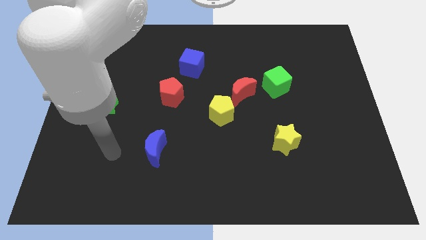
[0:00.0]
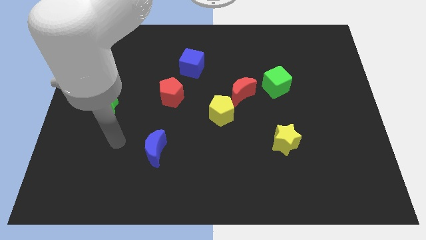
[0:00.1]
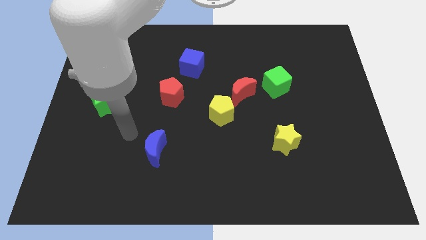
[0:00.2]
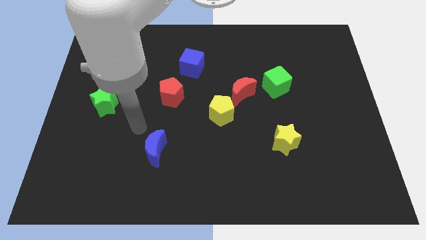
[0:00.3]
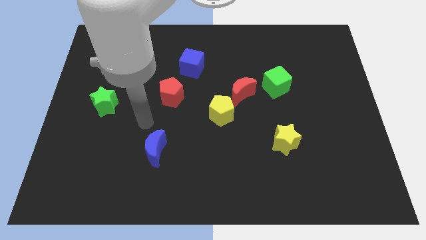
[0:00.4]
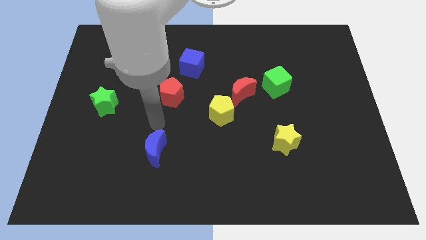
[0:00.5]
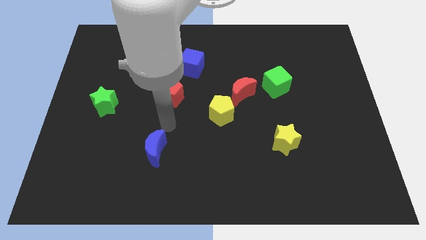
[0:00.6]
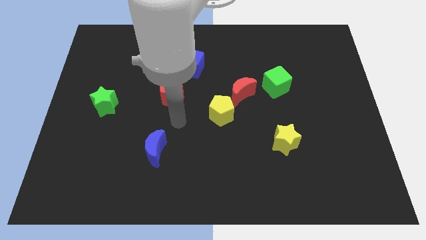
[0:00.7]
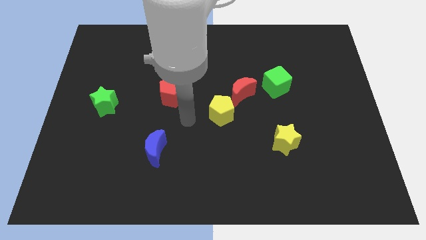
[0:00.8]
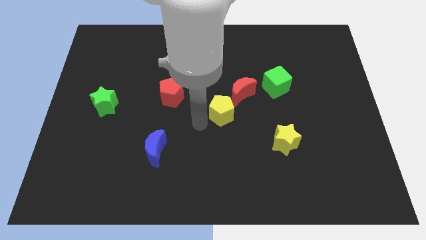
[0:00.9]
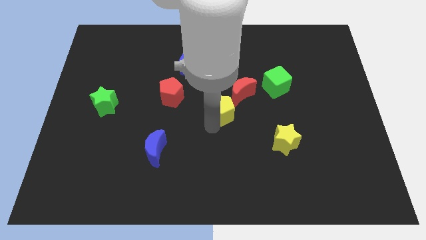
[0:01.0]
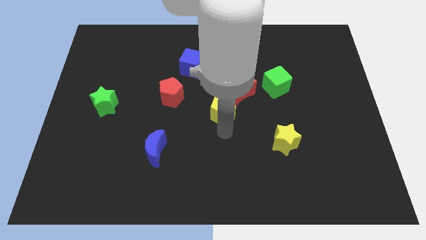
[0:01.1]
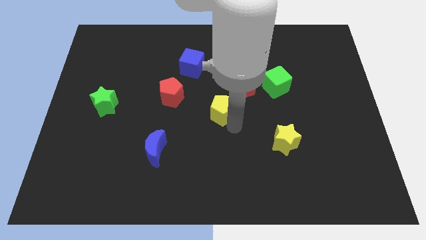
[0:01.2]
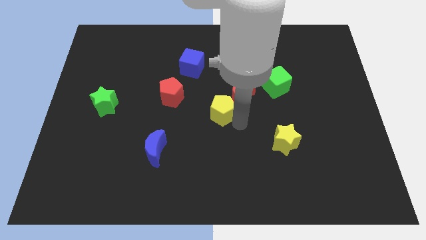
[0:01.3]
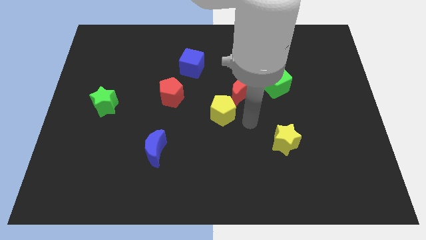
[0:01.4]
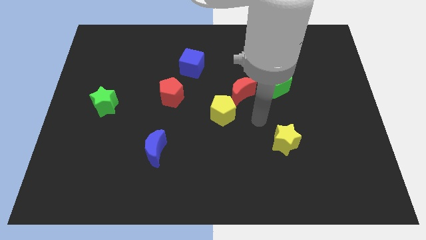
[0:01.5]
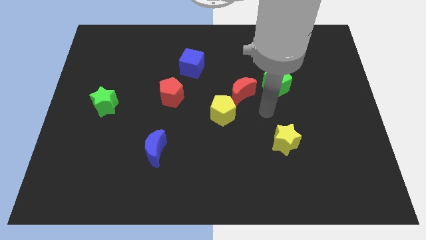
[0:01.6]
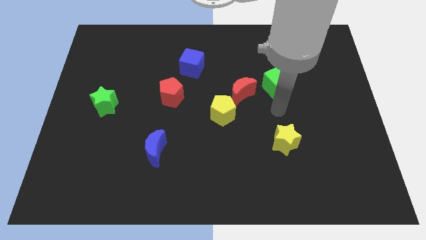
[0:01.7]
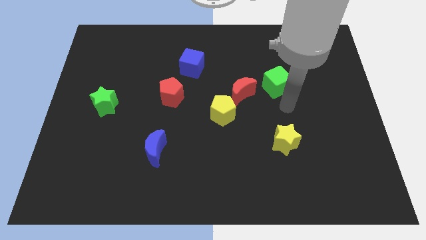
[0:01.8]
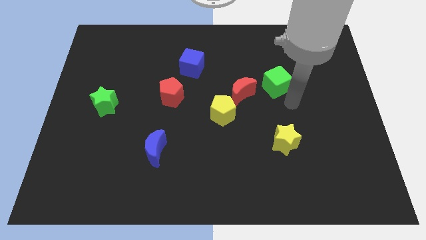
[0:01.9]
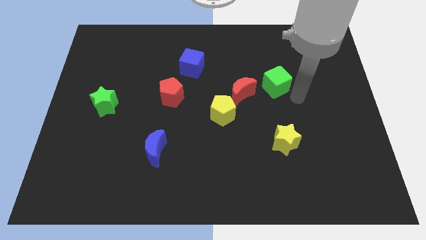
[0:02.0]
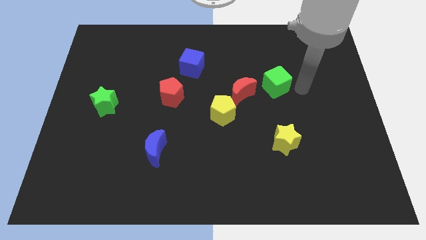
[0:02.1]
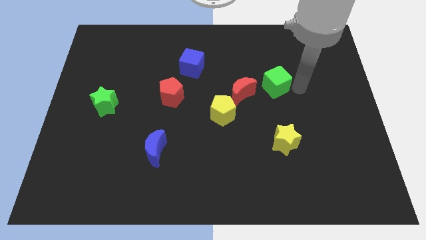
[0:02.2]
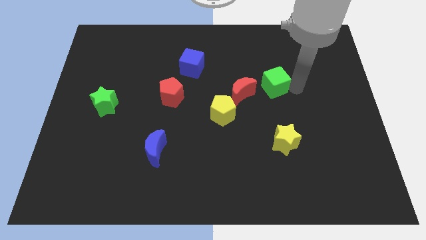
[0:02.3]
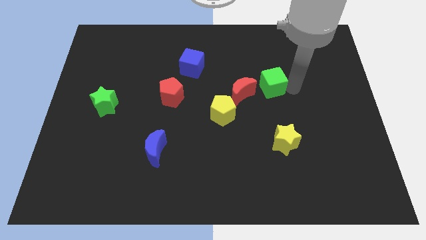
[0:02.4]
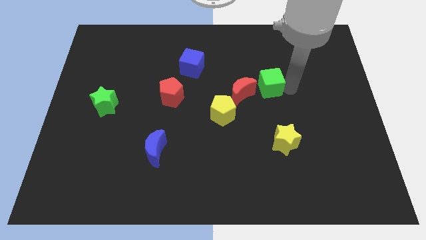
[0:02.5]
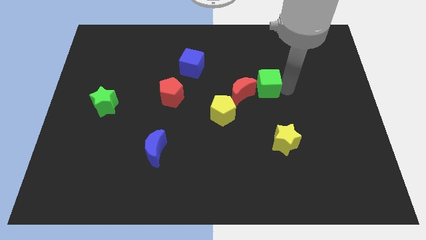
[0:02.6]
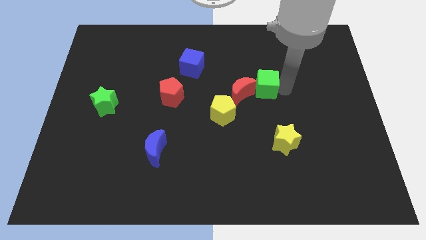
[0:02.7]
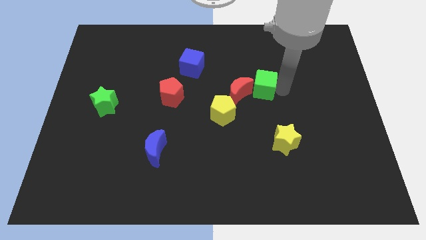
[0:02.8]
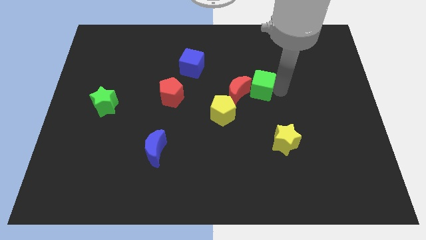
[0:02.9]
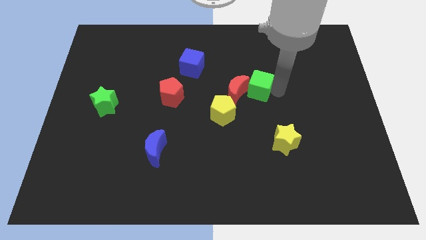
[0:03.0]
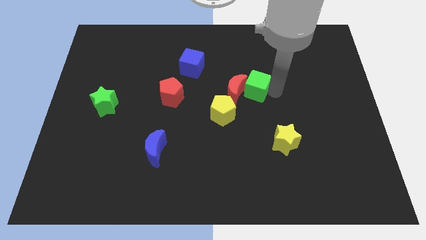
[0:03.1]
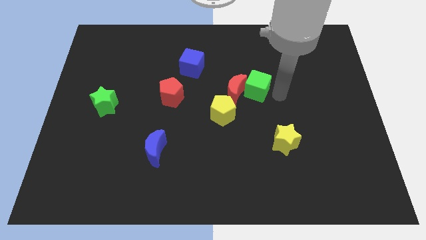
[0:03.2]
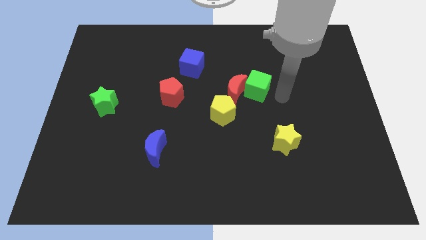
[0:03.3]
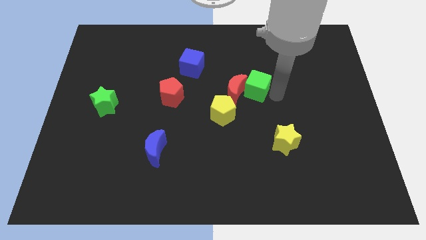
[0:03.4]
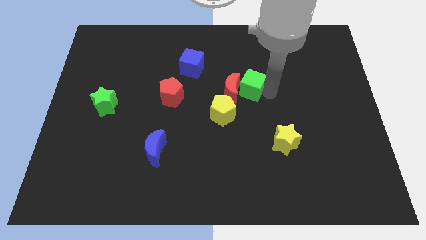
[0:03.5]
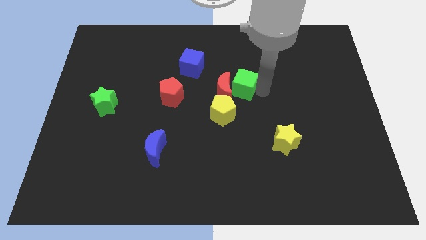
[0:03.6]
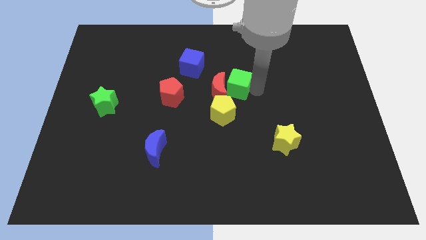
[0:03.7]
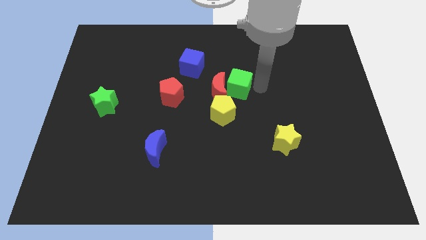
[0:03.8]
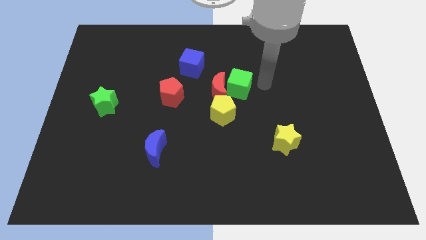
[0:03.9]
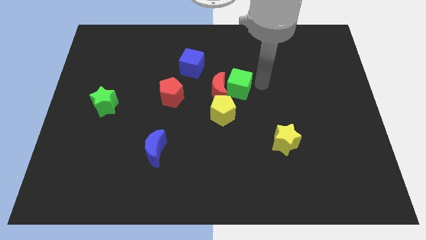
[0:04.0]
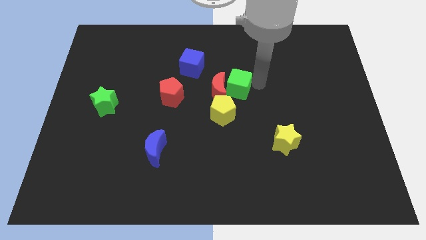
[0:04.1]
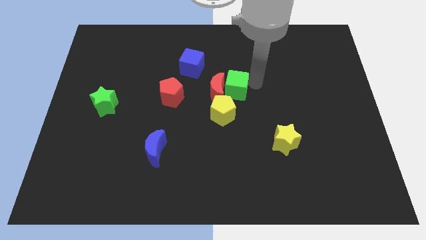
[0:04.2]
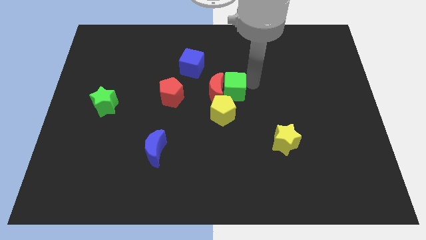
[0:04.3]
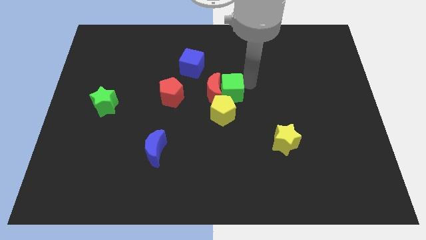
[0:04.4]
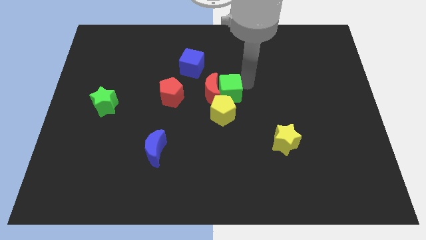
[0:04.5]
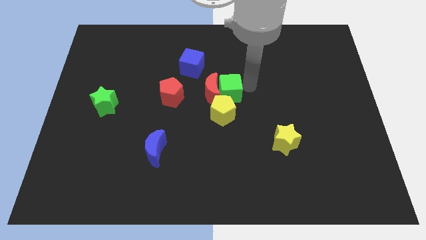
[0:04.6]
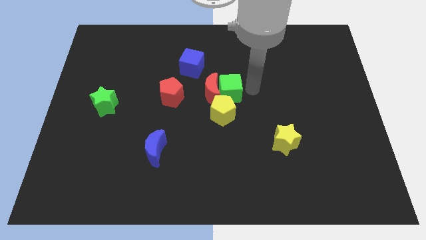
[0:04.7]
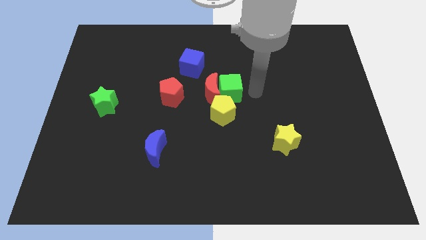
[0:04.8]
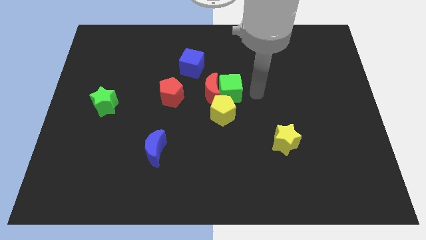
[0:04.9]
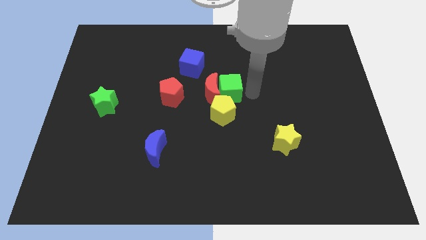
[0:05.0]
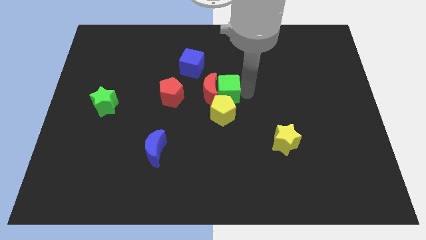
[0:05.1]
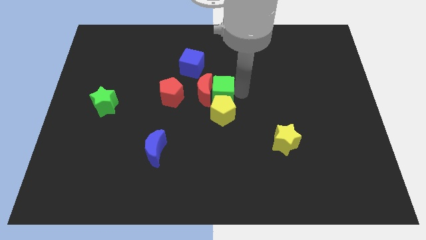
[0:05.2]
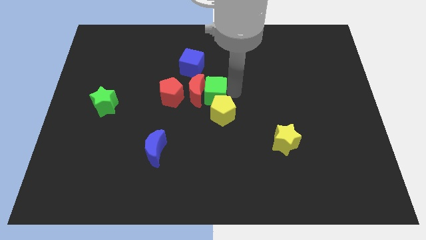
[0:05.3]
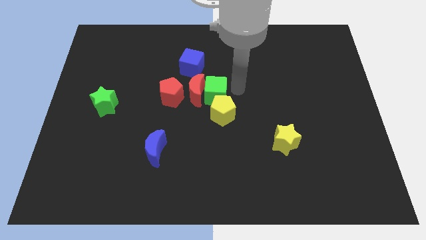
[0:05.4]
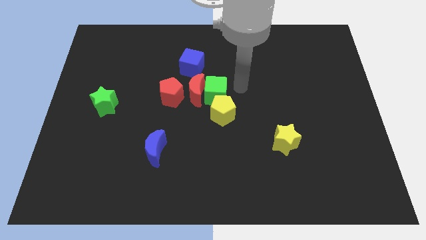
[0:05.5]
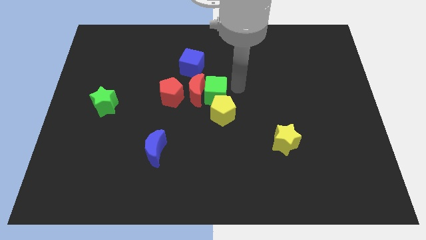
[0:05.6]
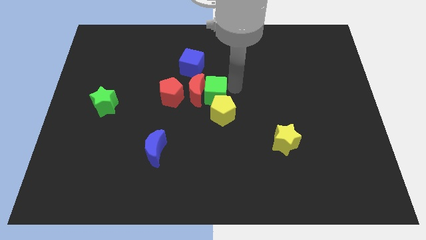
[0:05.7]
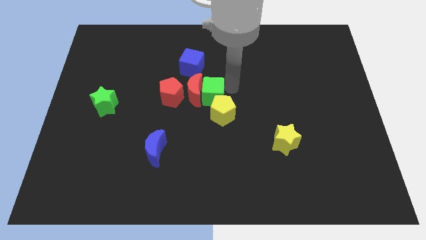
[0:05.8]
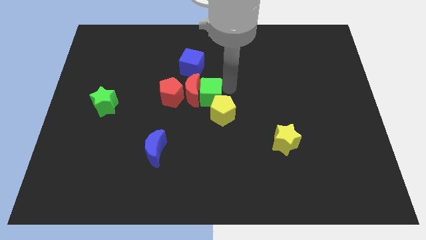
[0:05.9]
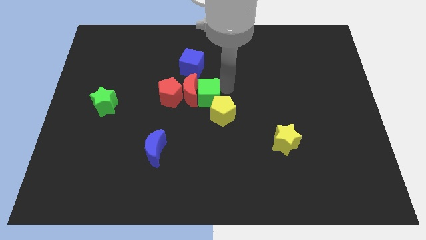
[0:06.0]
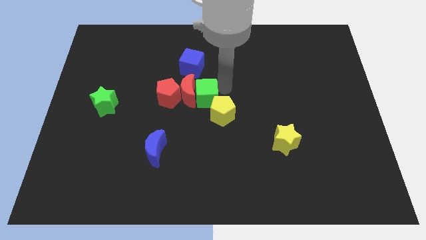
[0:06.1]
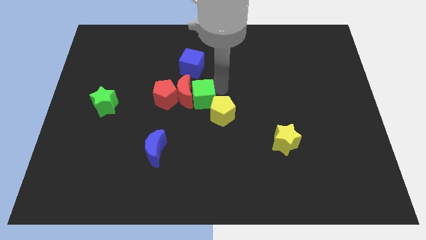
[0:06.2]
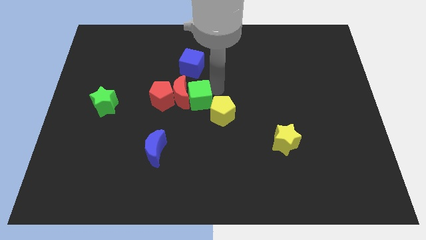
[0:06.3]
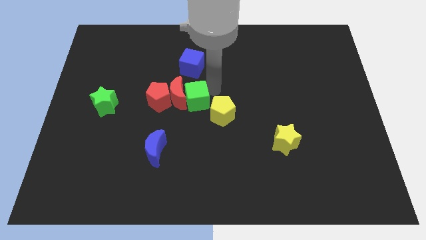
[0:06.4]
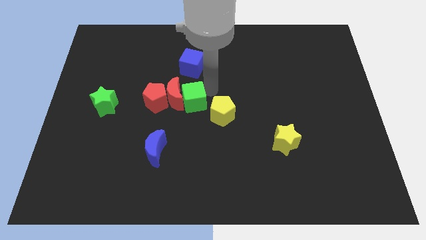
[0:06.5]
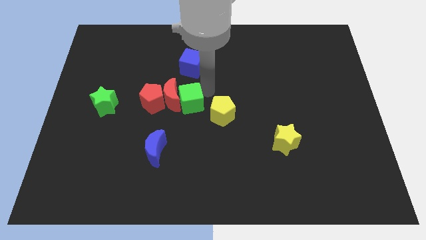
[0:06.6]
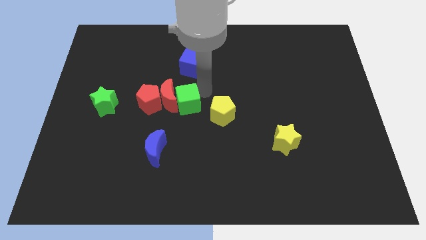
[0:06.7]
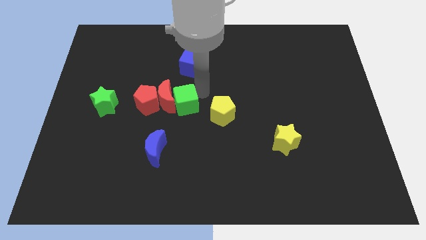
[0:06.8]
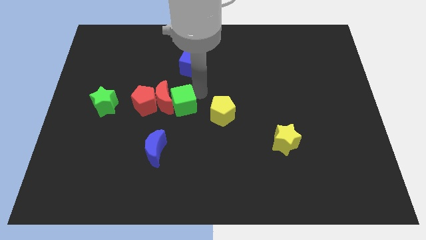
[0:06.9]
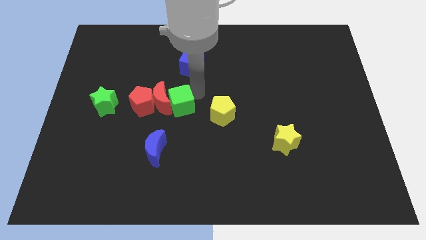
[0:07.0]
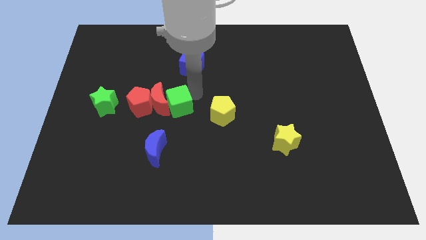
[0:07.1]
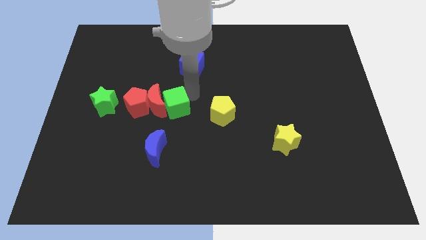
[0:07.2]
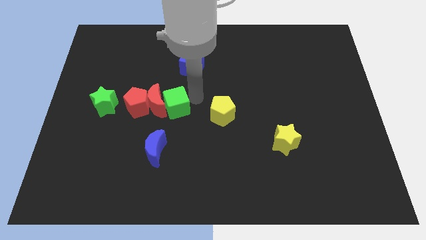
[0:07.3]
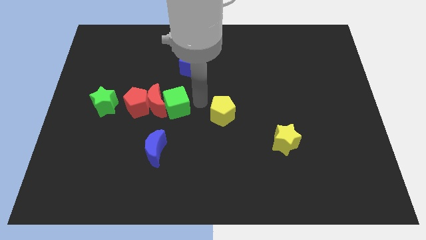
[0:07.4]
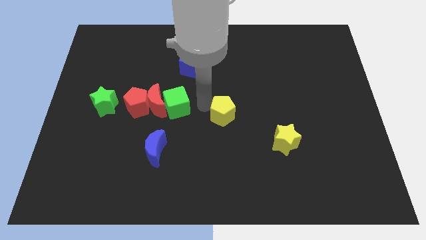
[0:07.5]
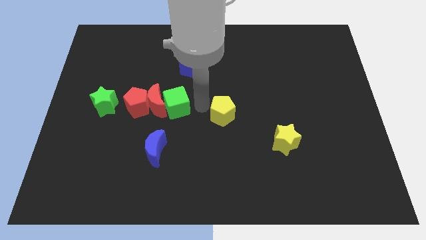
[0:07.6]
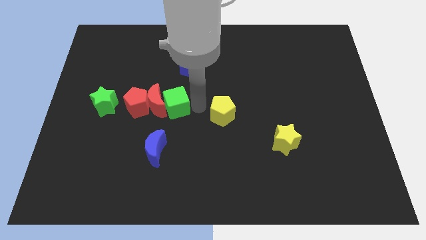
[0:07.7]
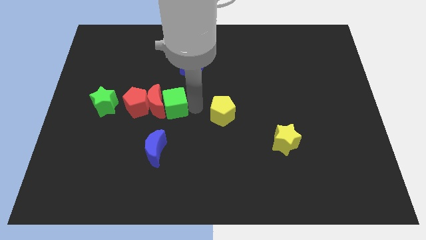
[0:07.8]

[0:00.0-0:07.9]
put the green cube right of the green star
